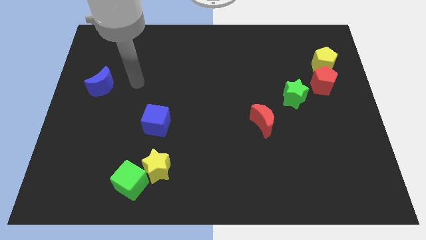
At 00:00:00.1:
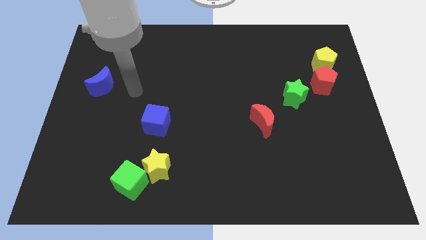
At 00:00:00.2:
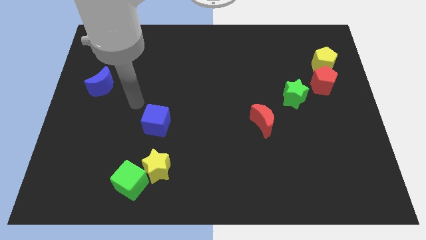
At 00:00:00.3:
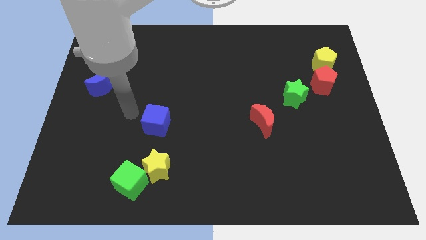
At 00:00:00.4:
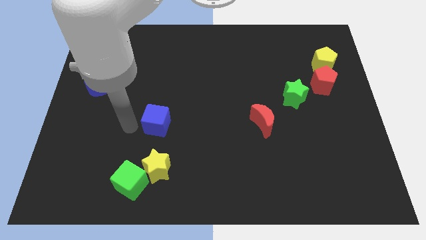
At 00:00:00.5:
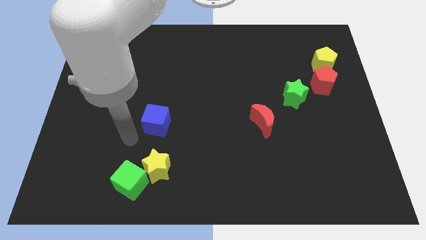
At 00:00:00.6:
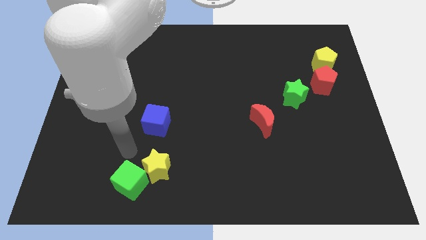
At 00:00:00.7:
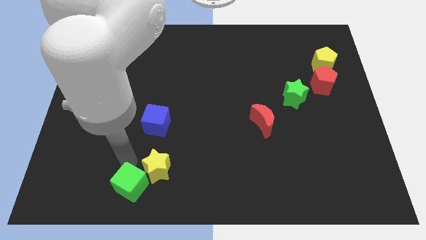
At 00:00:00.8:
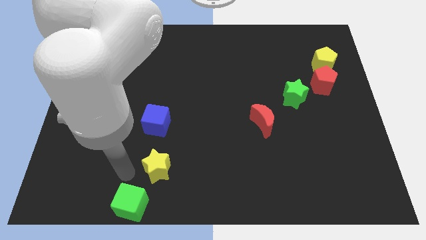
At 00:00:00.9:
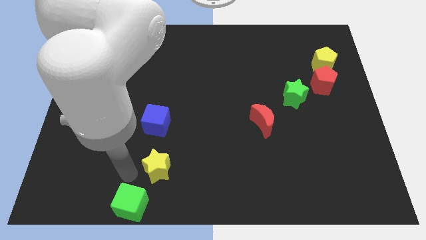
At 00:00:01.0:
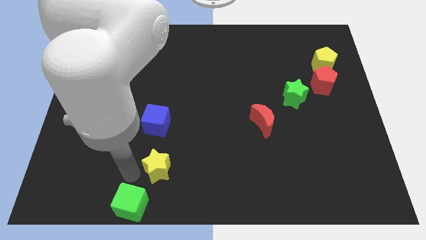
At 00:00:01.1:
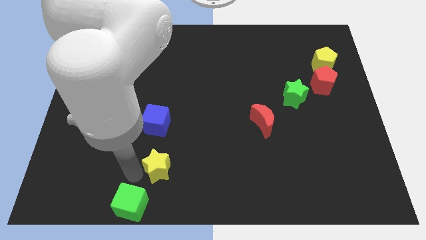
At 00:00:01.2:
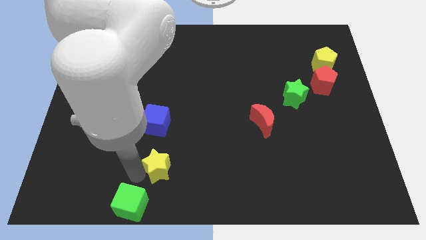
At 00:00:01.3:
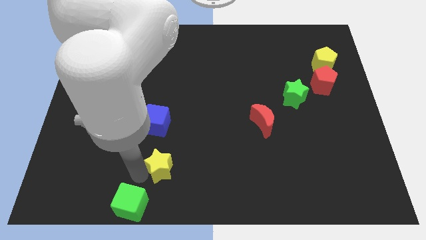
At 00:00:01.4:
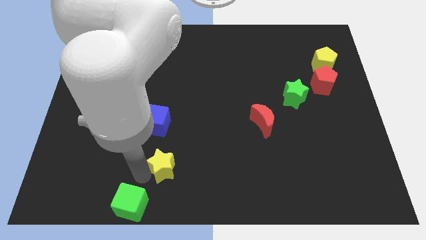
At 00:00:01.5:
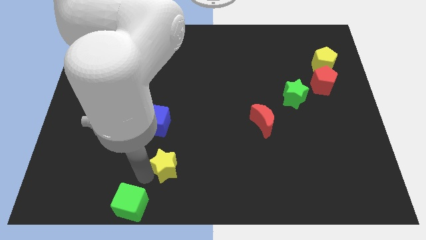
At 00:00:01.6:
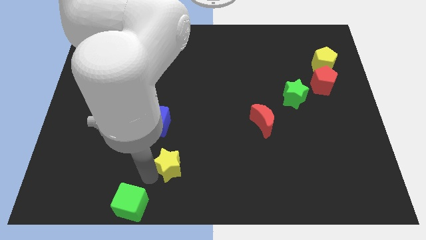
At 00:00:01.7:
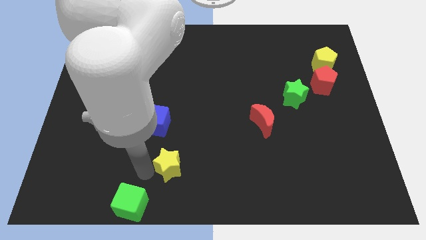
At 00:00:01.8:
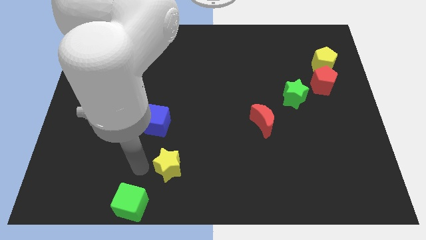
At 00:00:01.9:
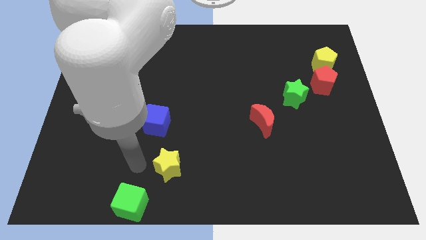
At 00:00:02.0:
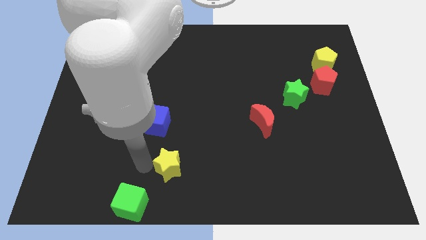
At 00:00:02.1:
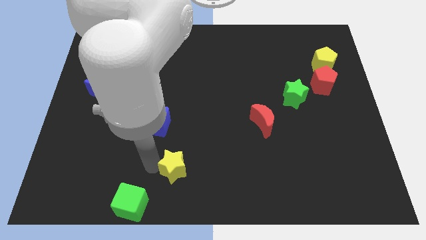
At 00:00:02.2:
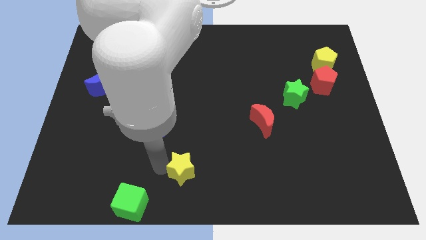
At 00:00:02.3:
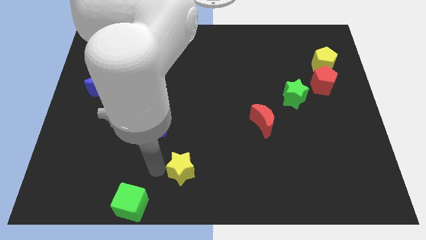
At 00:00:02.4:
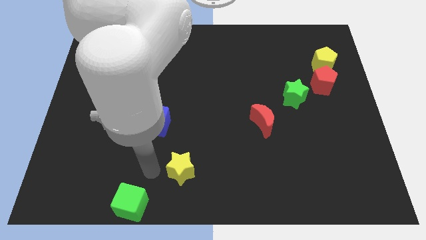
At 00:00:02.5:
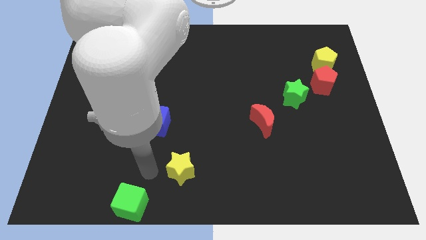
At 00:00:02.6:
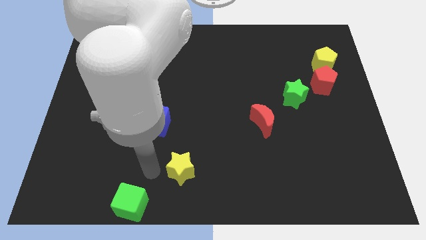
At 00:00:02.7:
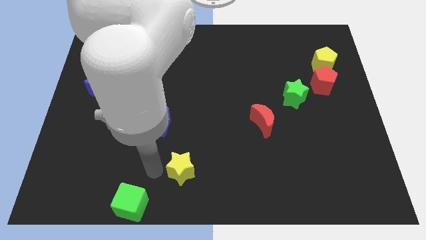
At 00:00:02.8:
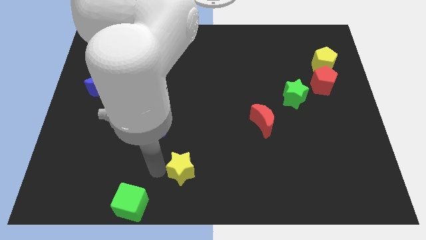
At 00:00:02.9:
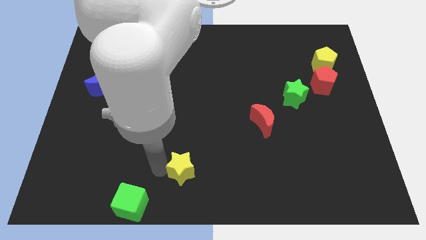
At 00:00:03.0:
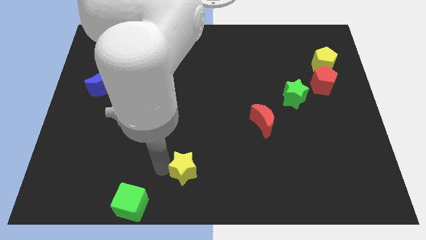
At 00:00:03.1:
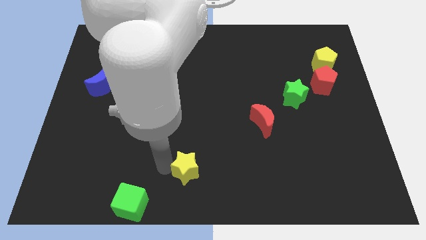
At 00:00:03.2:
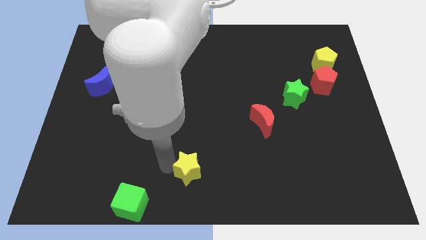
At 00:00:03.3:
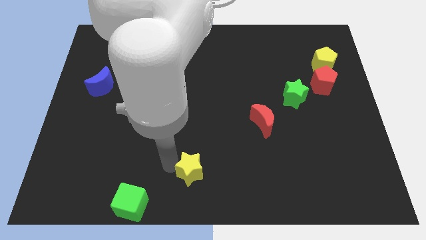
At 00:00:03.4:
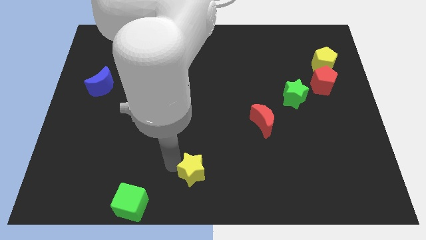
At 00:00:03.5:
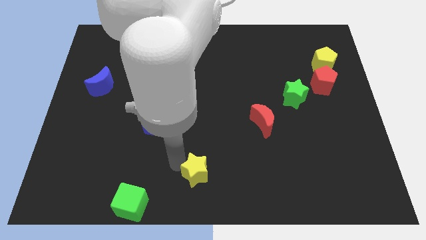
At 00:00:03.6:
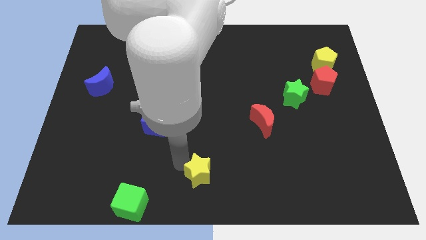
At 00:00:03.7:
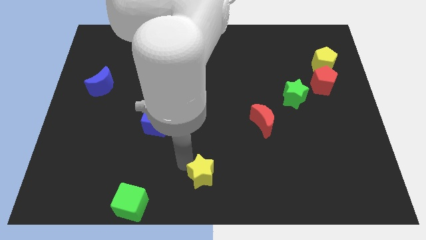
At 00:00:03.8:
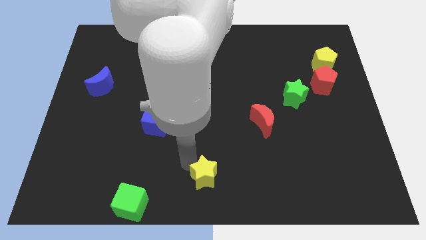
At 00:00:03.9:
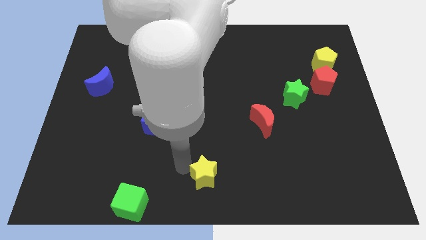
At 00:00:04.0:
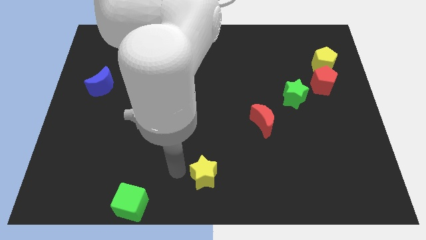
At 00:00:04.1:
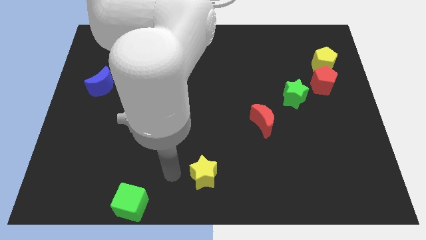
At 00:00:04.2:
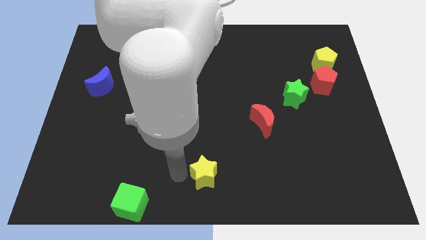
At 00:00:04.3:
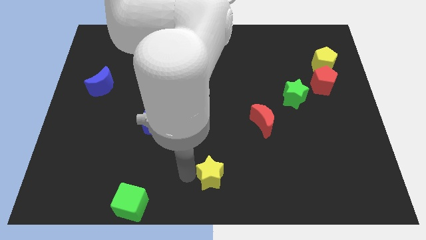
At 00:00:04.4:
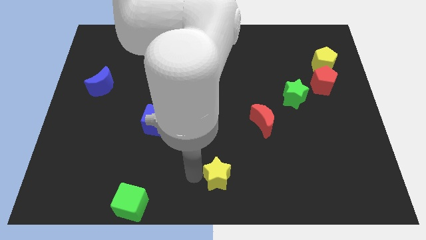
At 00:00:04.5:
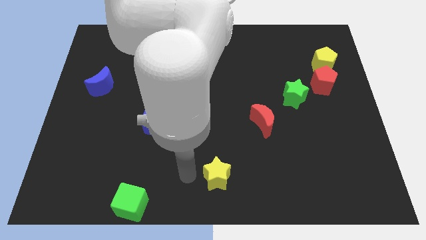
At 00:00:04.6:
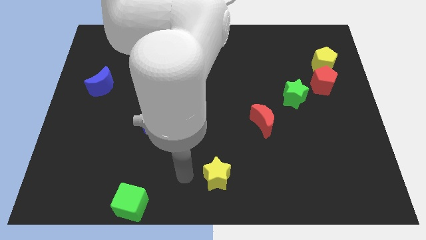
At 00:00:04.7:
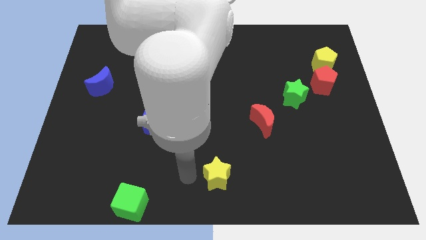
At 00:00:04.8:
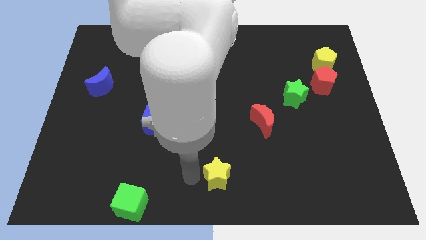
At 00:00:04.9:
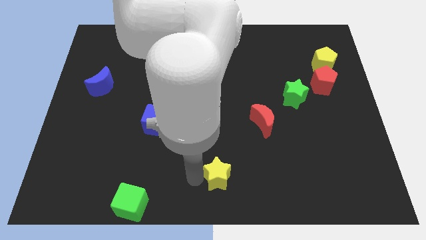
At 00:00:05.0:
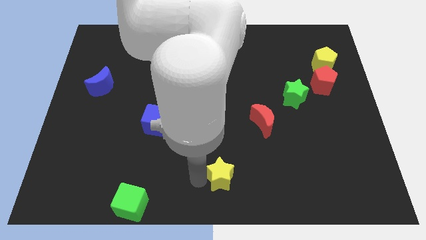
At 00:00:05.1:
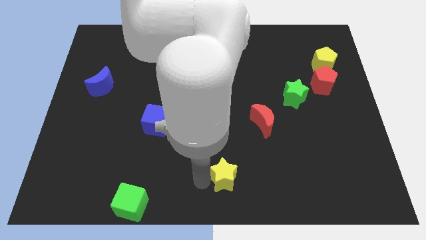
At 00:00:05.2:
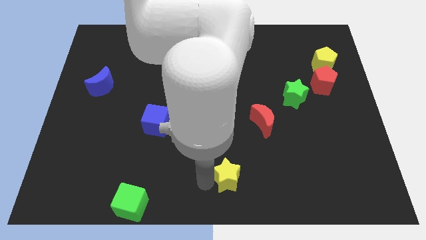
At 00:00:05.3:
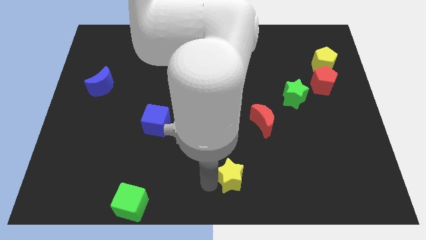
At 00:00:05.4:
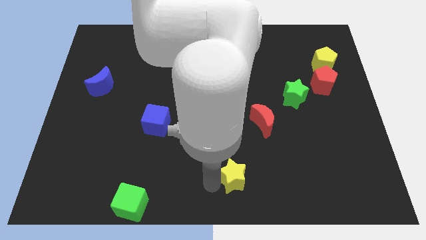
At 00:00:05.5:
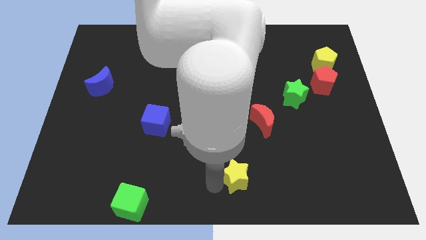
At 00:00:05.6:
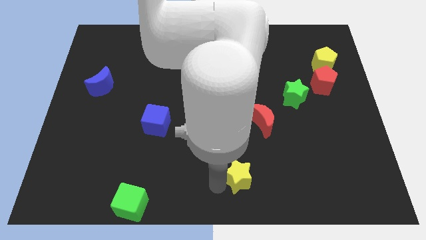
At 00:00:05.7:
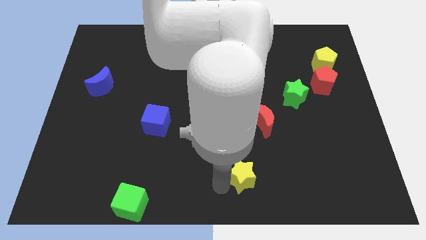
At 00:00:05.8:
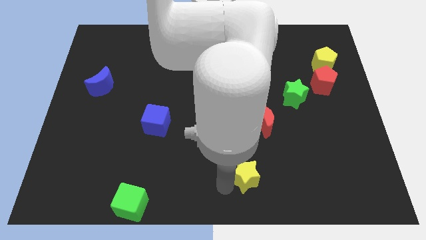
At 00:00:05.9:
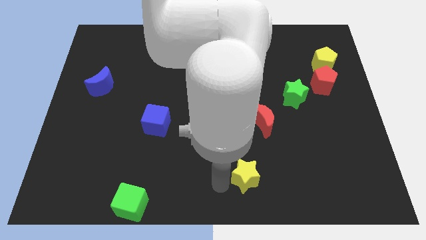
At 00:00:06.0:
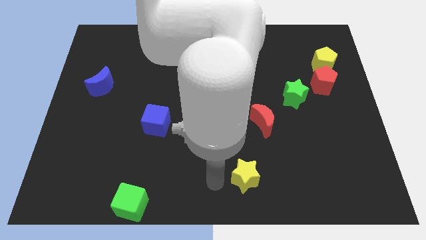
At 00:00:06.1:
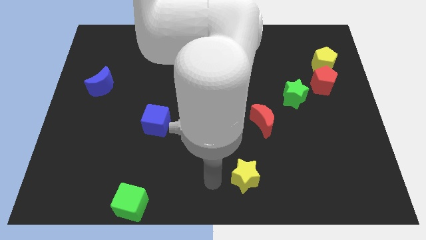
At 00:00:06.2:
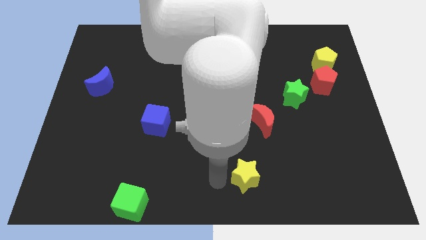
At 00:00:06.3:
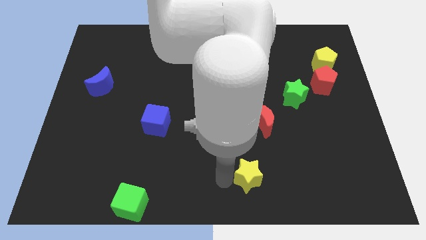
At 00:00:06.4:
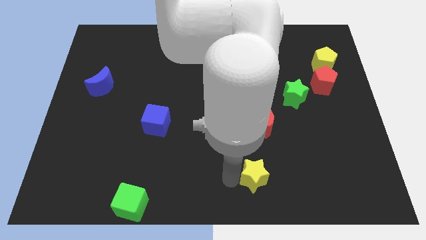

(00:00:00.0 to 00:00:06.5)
move the yellow star to the right

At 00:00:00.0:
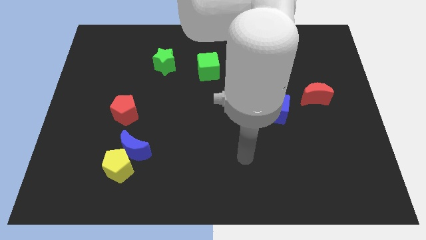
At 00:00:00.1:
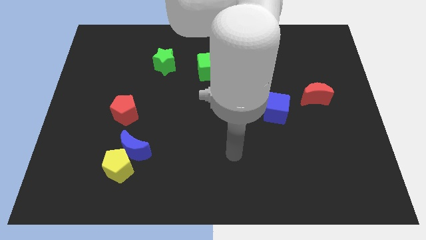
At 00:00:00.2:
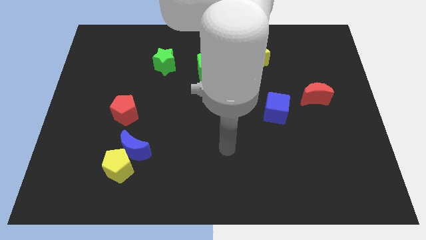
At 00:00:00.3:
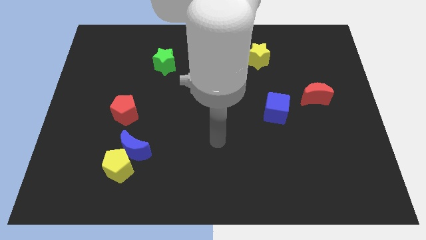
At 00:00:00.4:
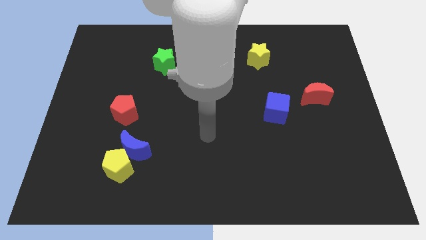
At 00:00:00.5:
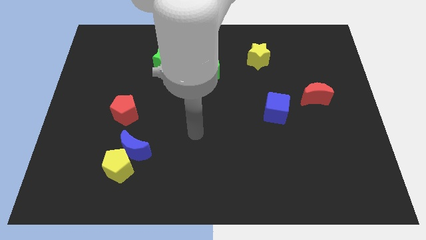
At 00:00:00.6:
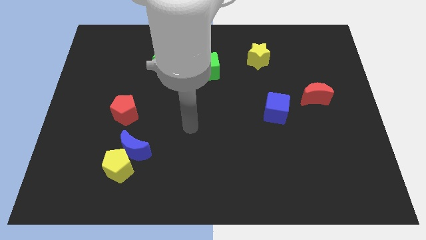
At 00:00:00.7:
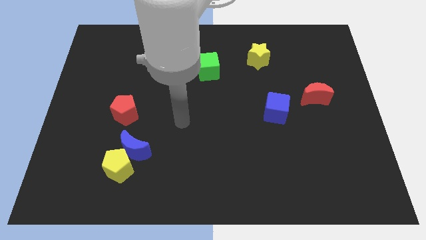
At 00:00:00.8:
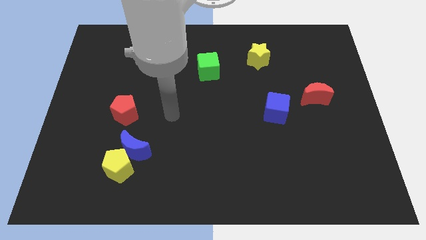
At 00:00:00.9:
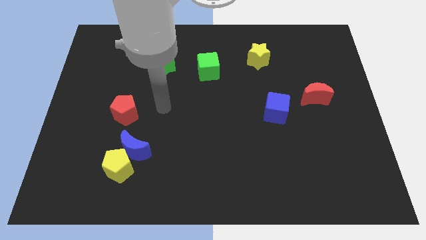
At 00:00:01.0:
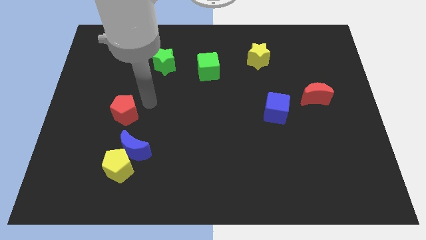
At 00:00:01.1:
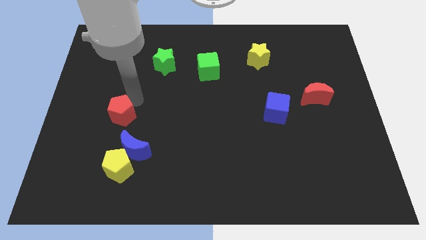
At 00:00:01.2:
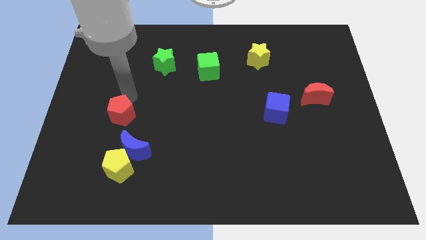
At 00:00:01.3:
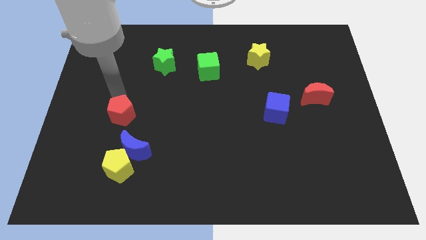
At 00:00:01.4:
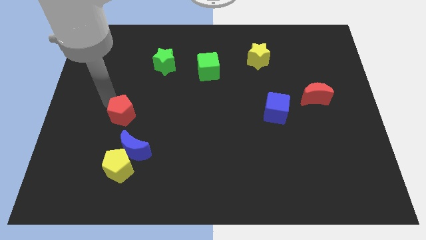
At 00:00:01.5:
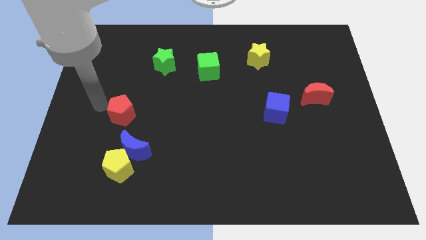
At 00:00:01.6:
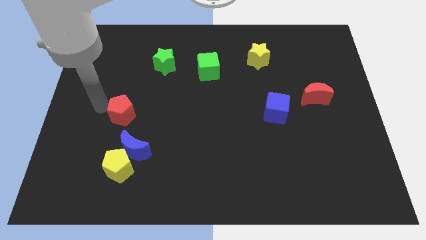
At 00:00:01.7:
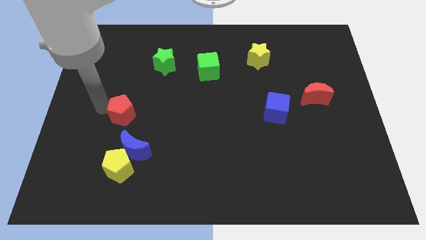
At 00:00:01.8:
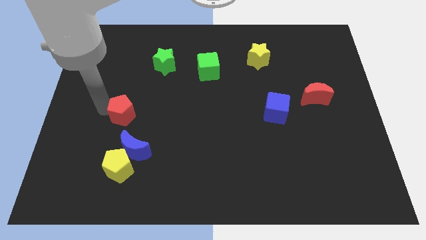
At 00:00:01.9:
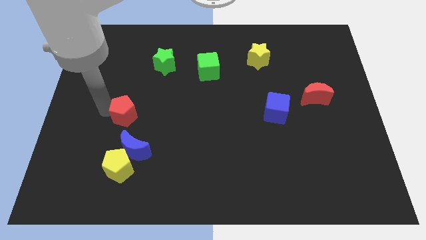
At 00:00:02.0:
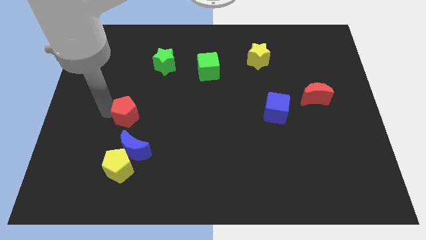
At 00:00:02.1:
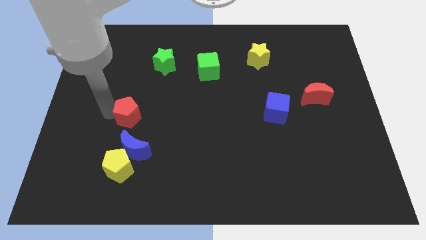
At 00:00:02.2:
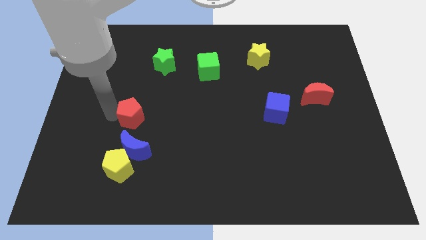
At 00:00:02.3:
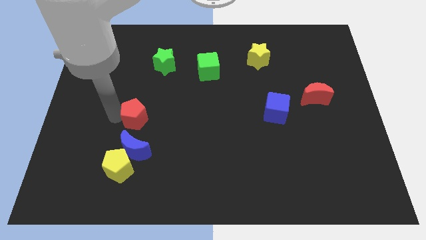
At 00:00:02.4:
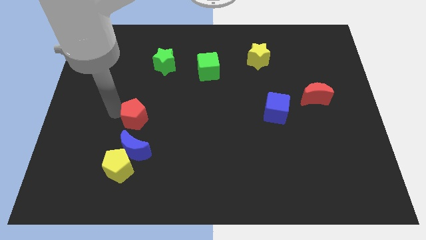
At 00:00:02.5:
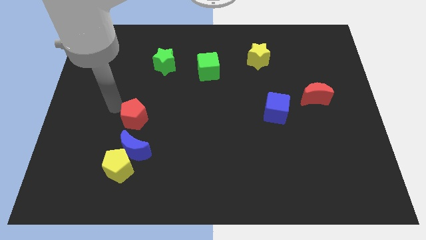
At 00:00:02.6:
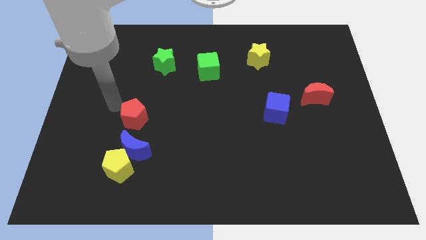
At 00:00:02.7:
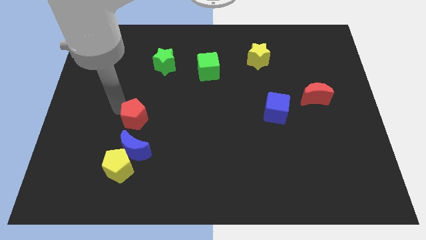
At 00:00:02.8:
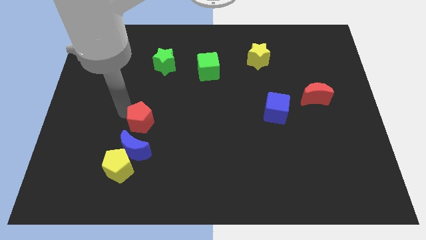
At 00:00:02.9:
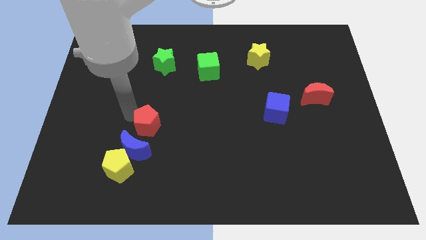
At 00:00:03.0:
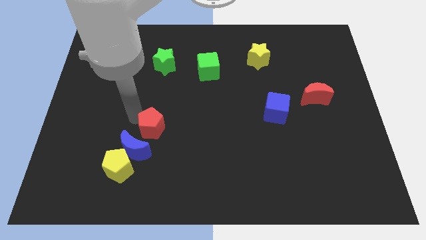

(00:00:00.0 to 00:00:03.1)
slightly slide the red pentagon down and right
